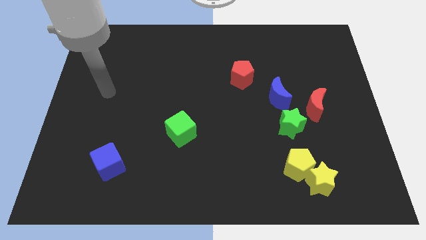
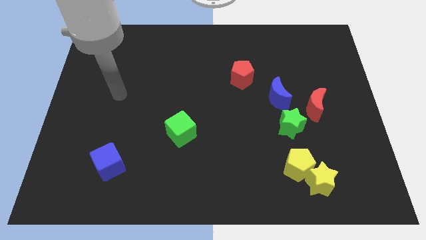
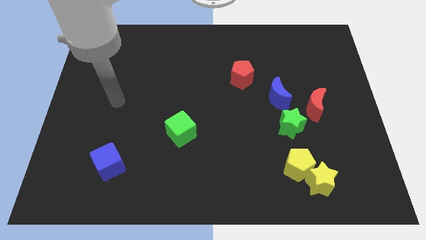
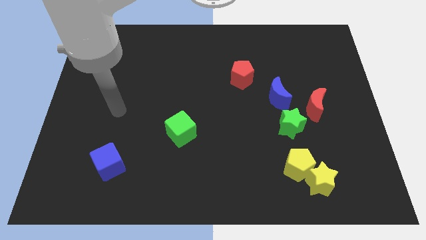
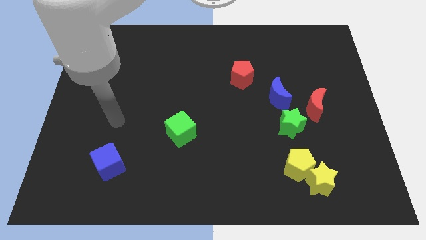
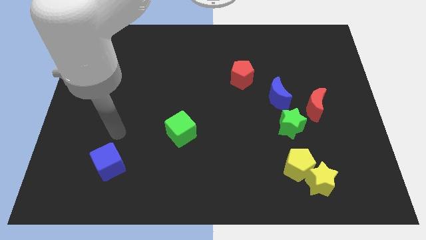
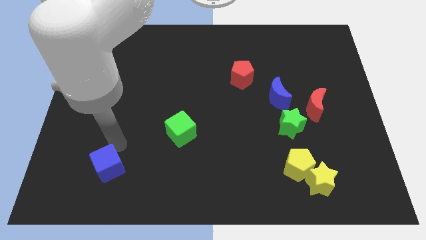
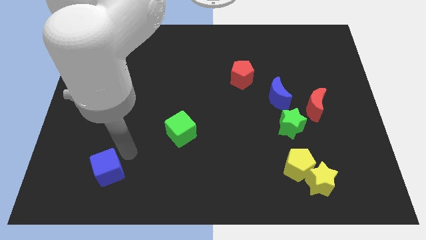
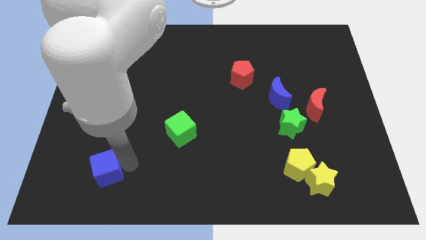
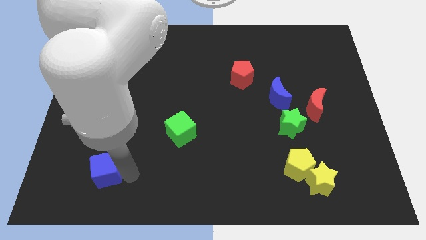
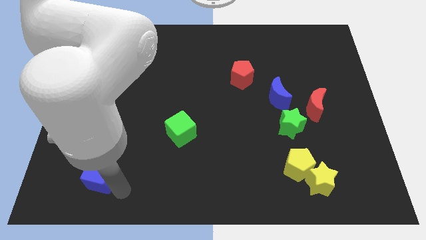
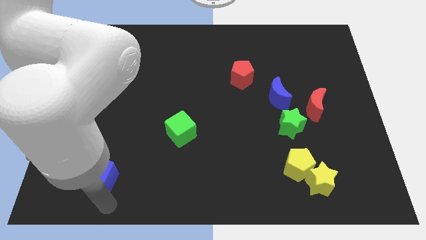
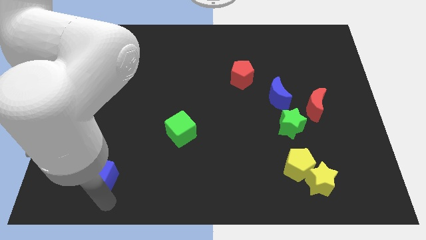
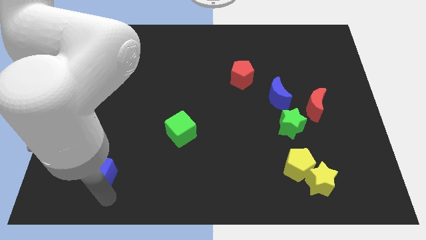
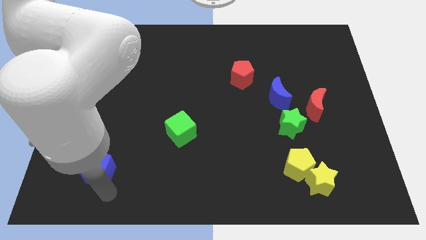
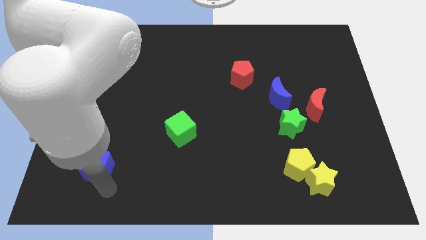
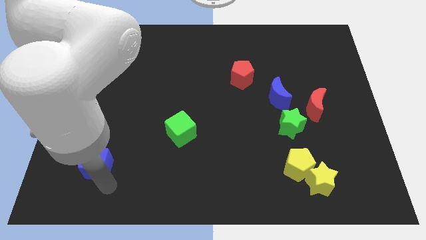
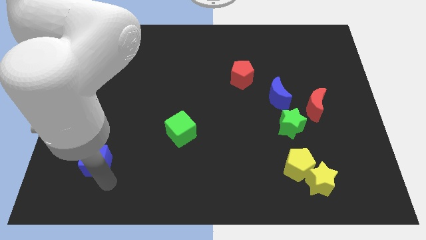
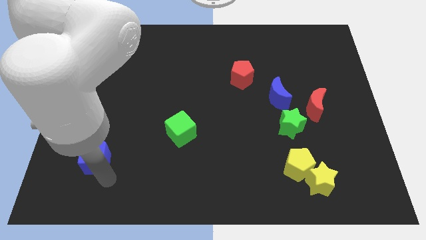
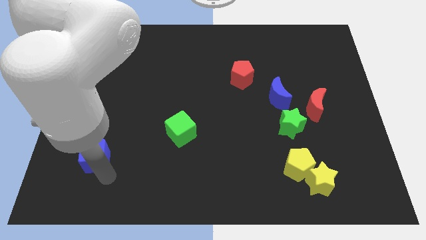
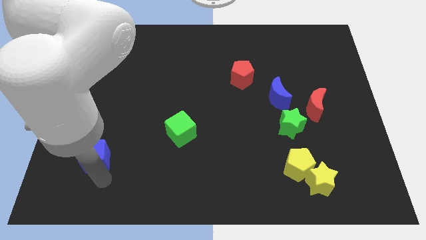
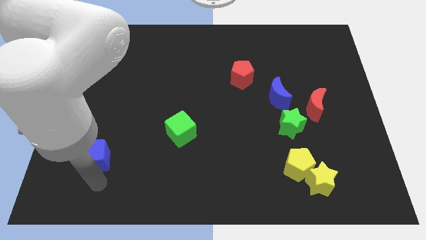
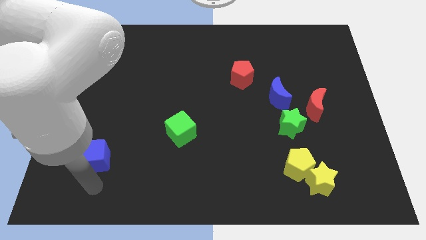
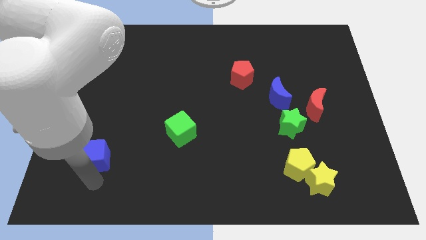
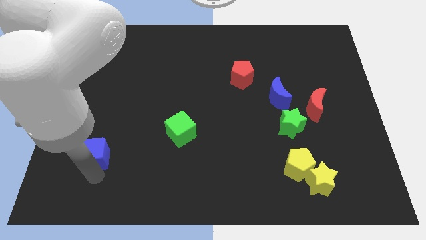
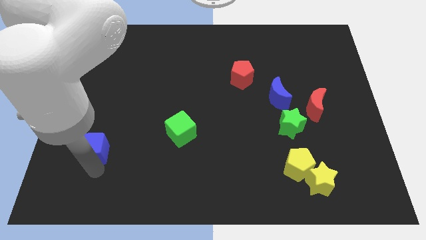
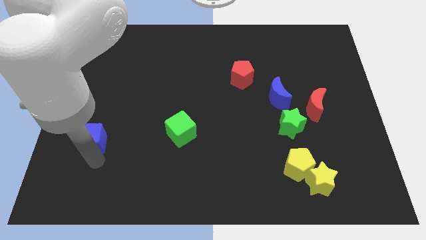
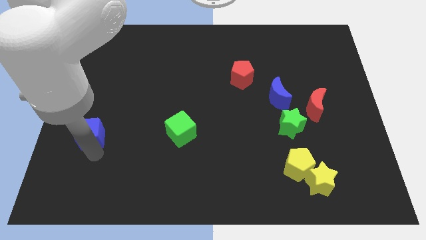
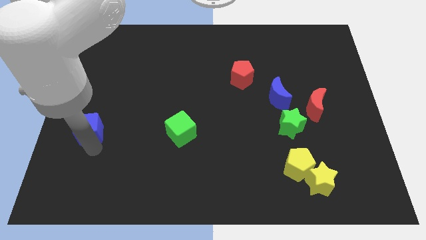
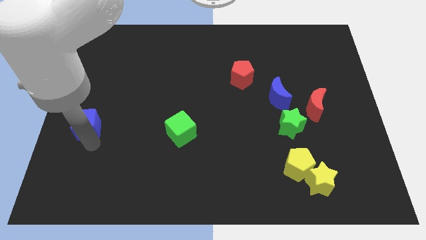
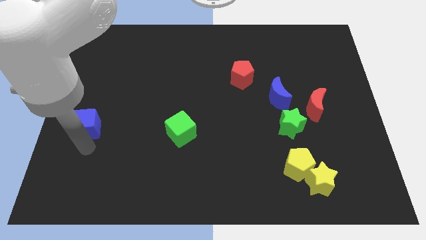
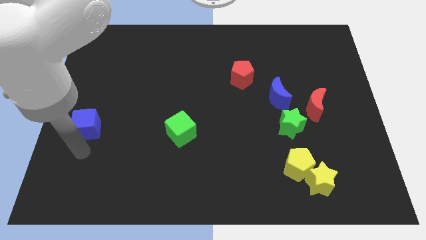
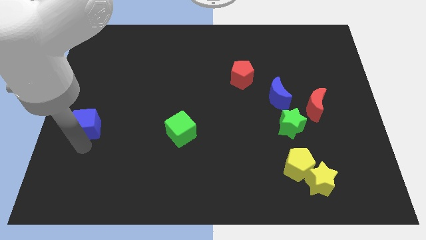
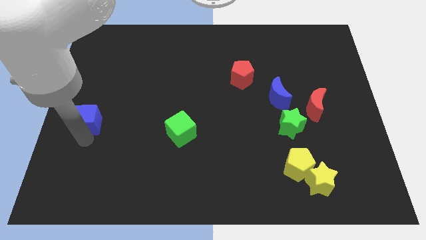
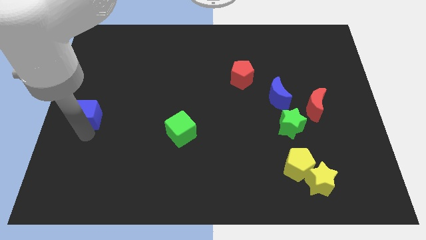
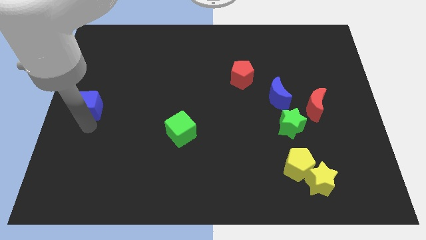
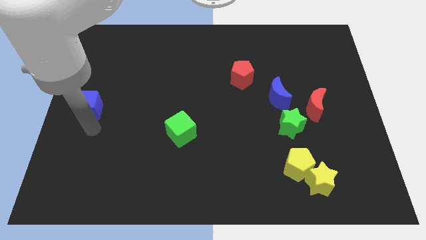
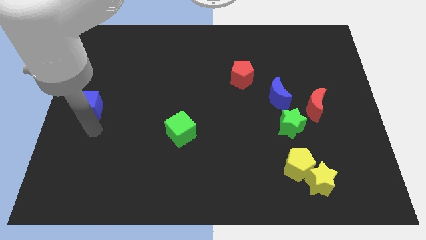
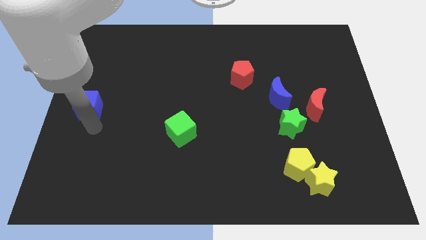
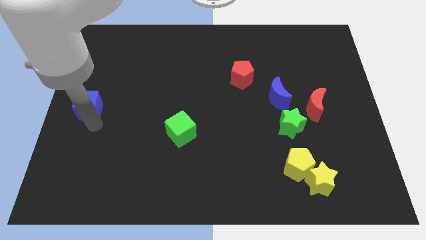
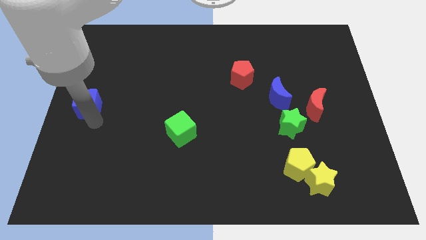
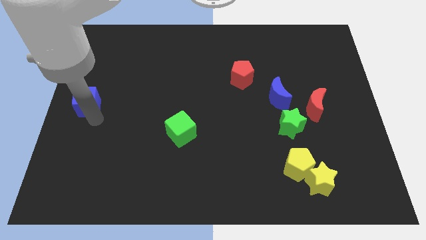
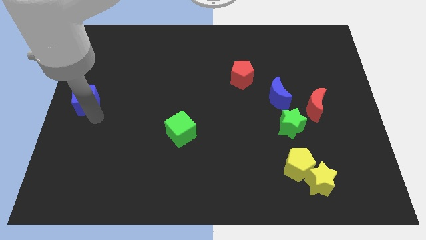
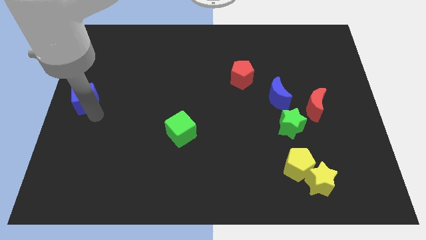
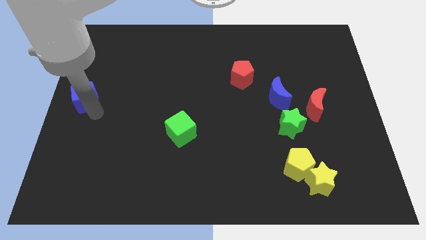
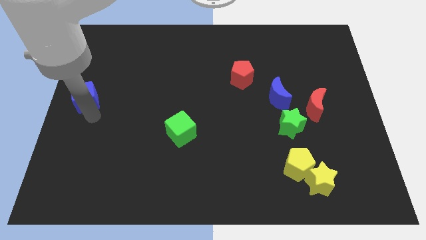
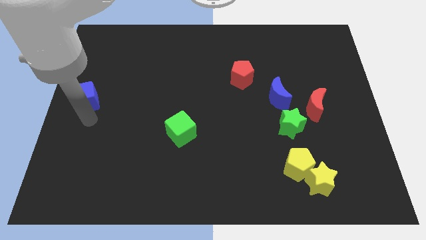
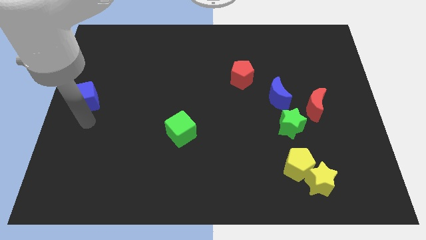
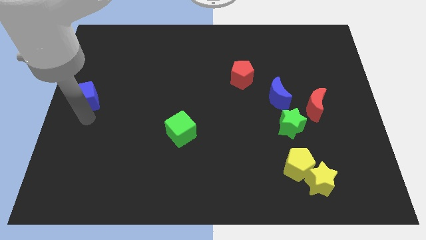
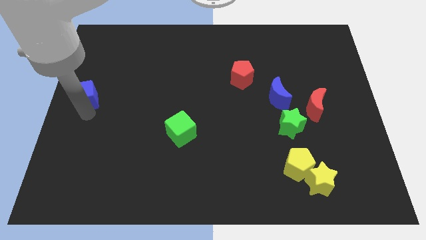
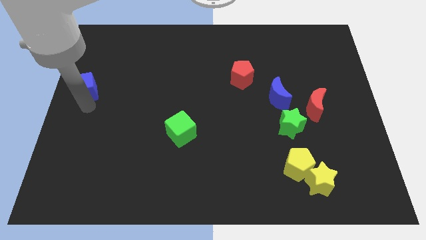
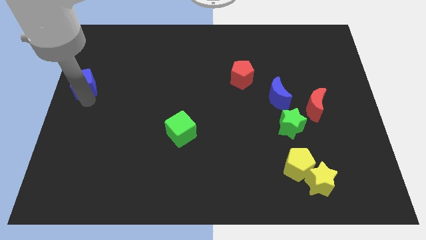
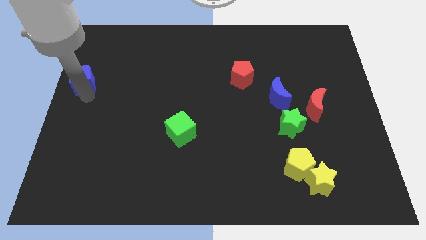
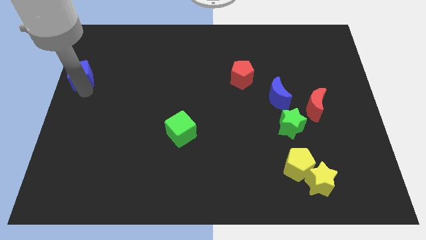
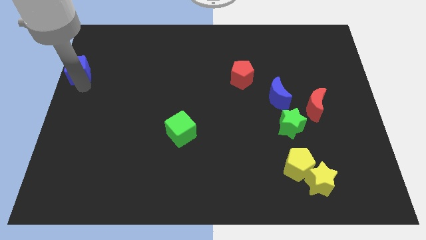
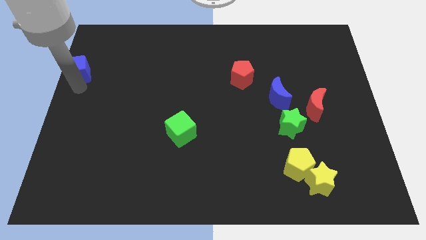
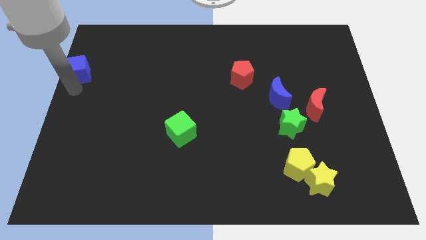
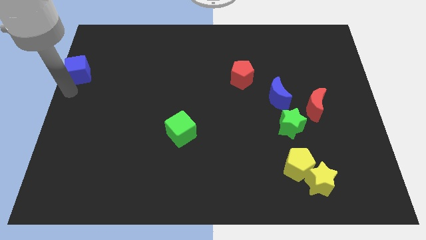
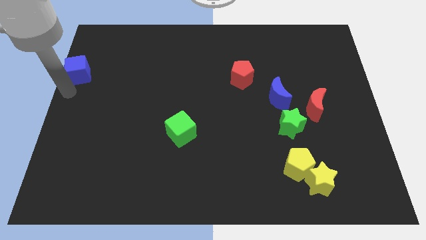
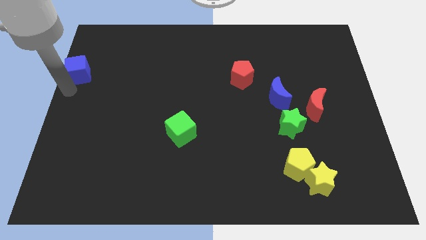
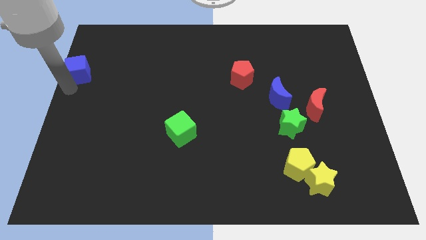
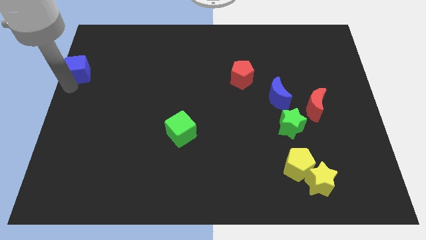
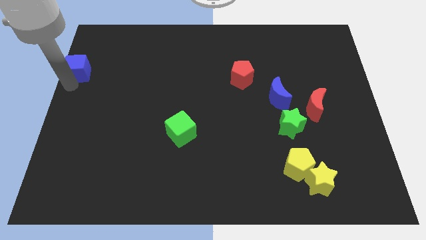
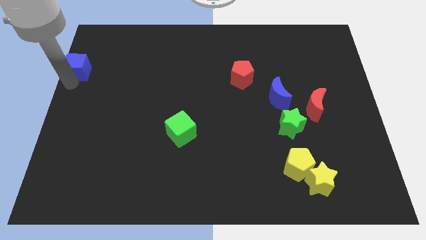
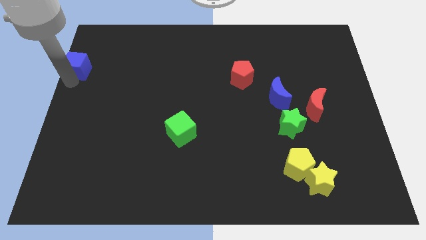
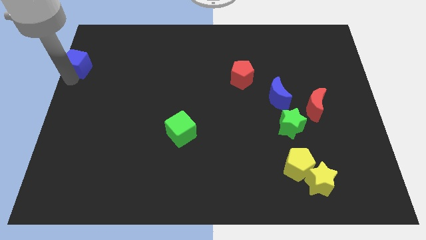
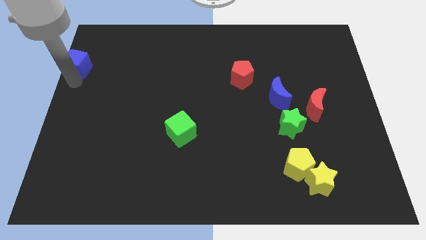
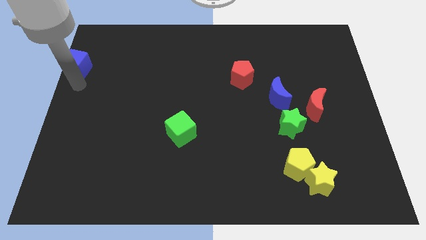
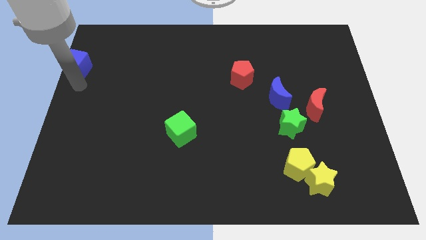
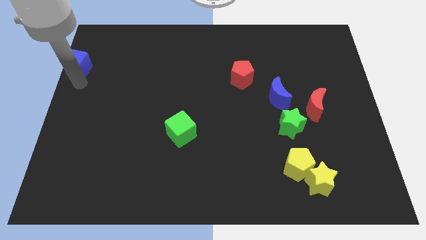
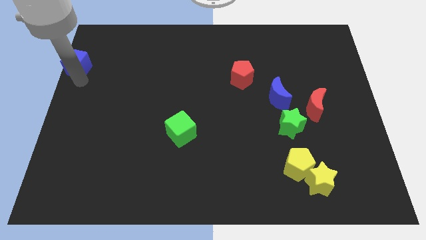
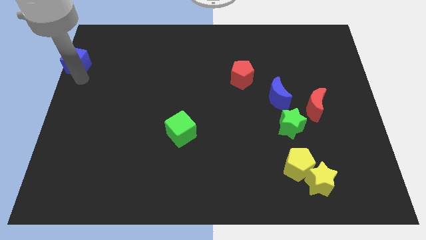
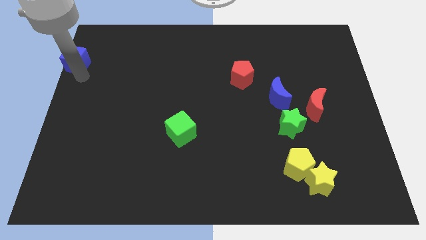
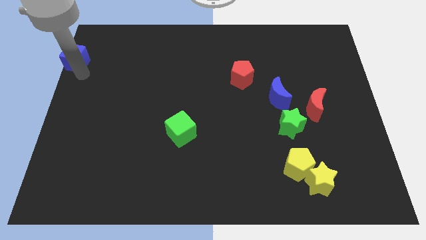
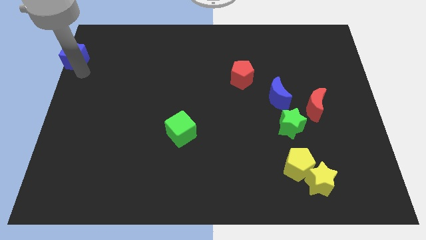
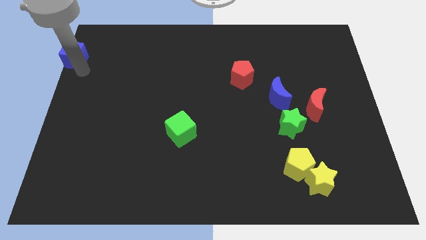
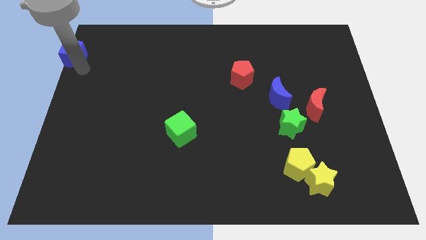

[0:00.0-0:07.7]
slide the blue cube to the upper left corner
